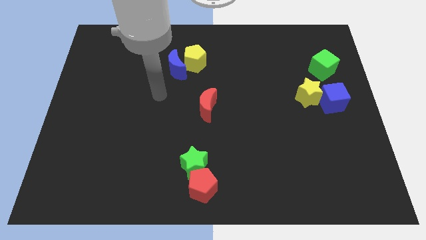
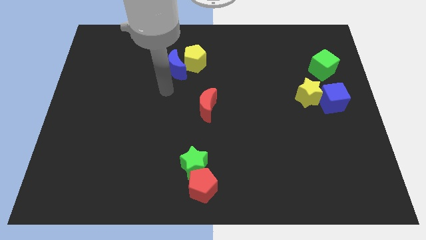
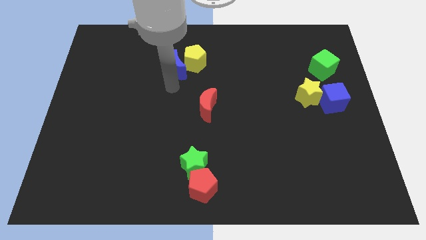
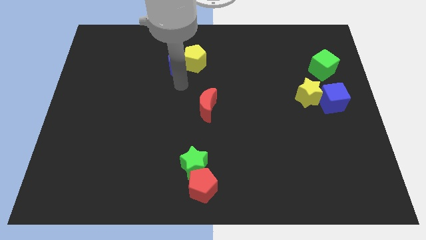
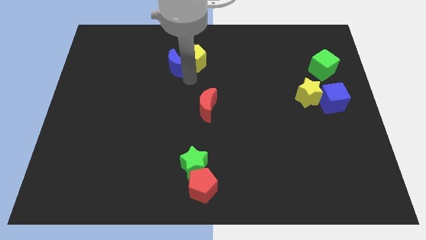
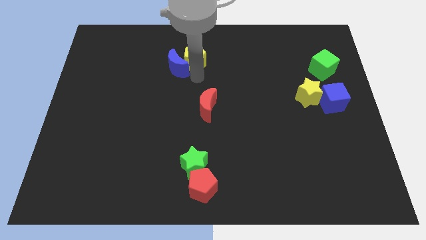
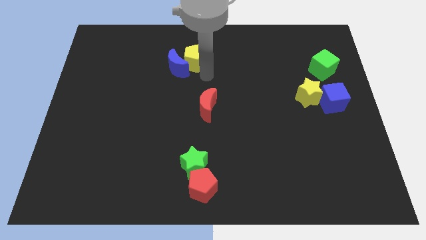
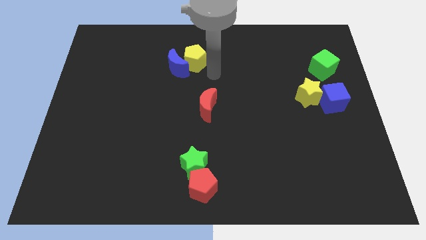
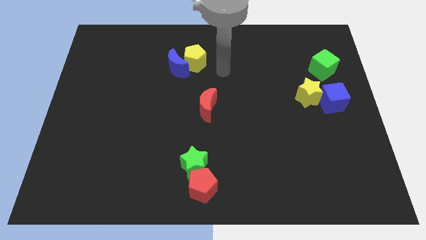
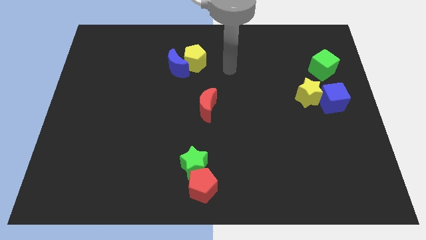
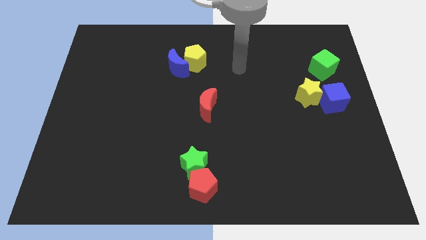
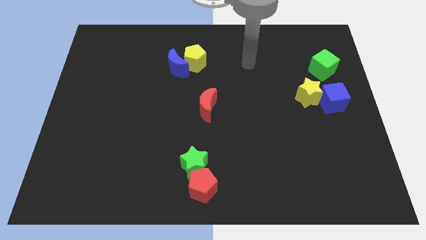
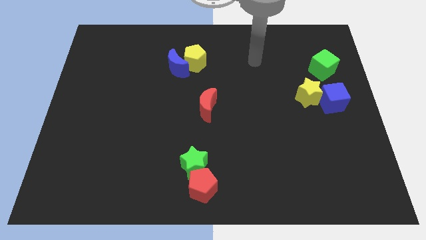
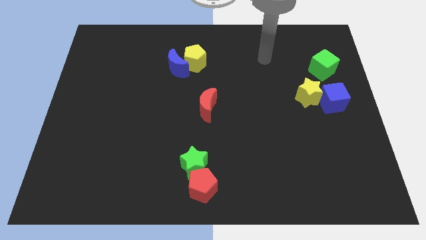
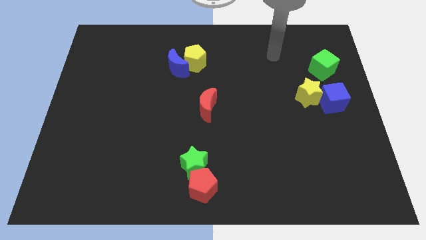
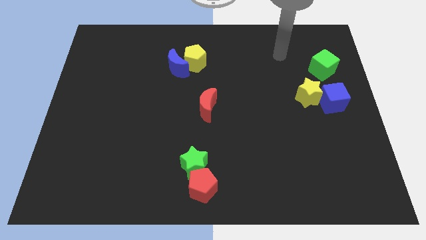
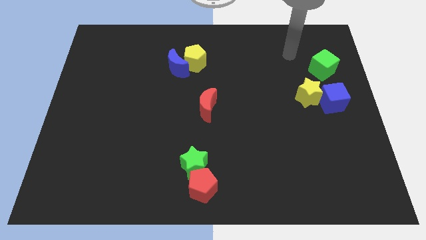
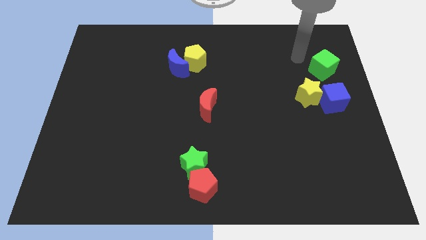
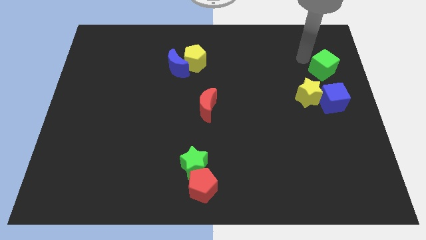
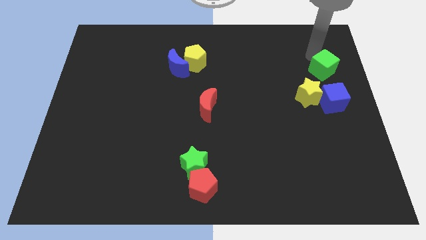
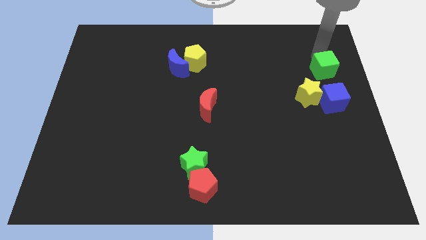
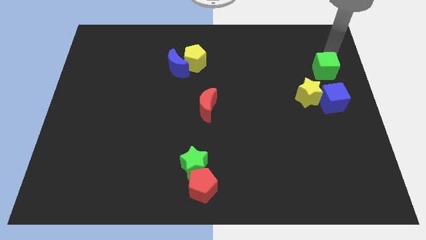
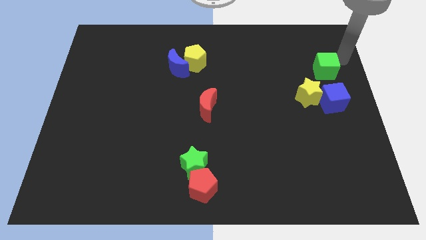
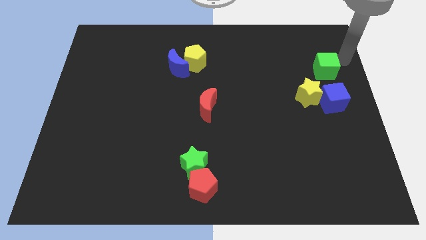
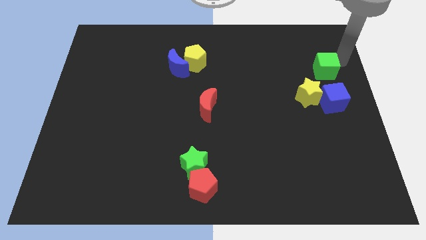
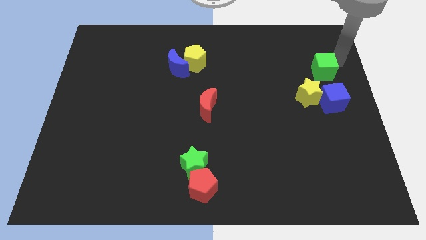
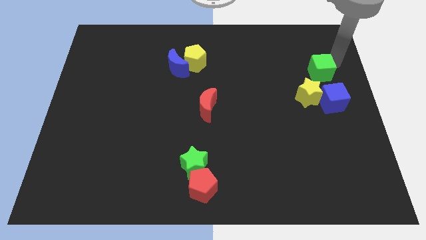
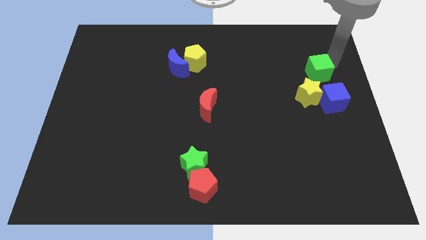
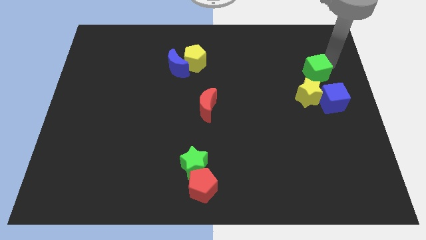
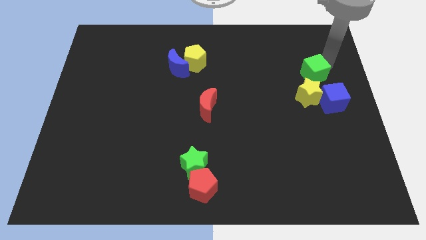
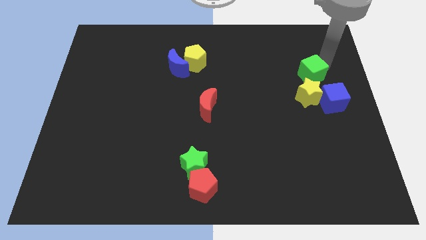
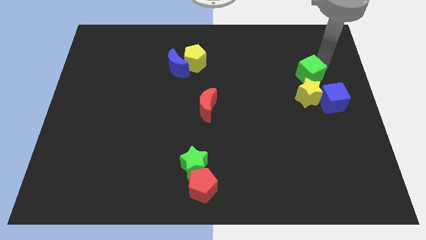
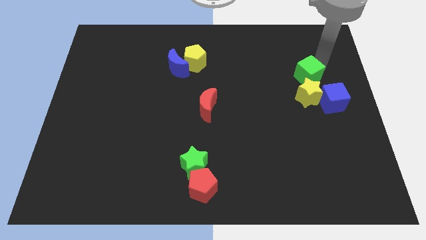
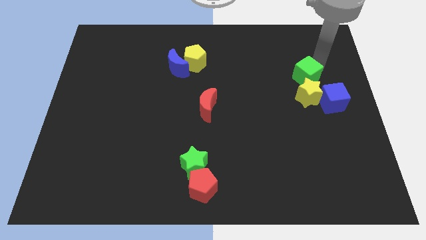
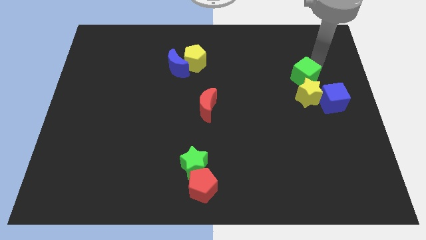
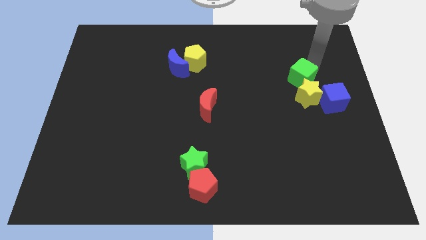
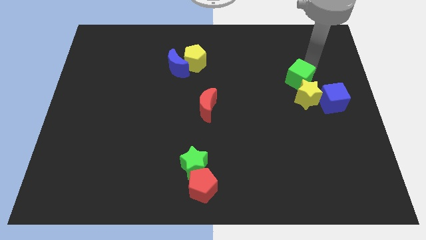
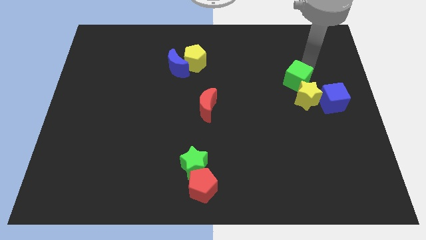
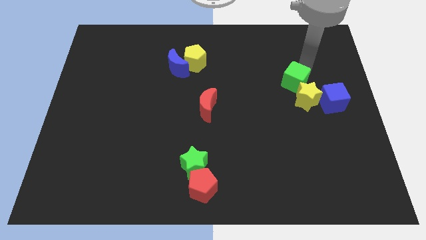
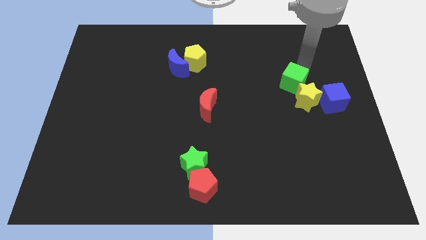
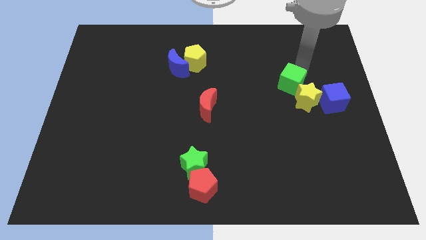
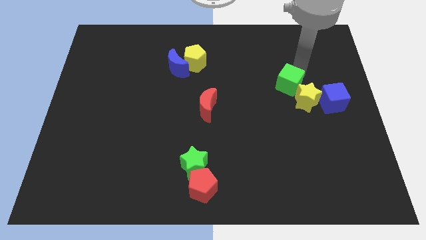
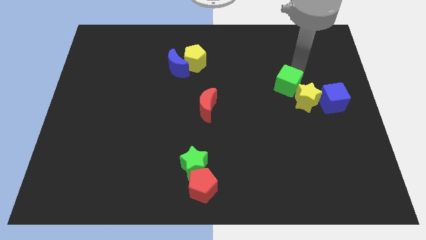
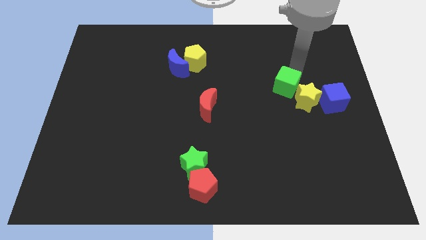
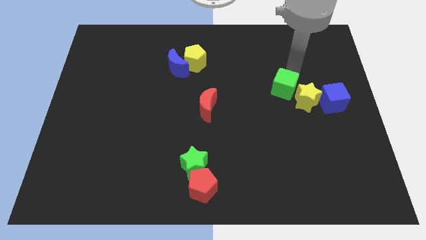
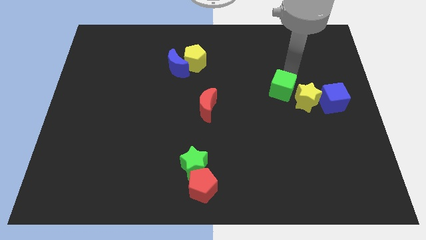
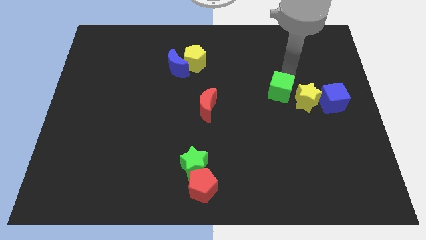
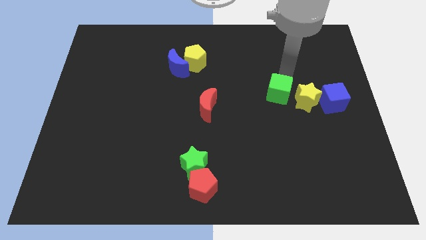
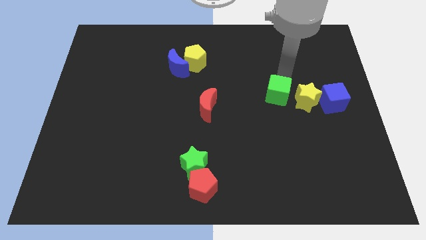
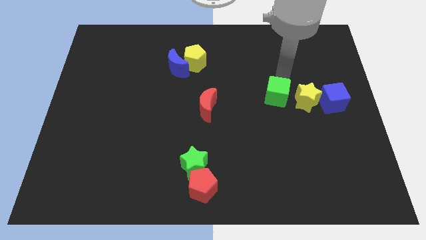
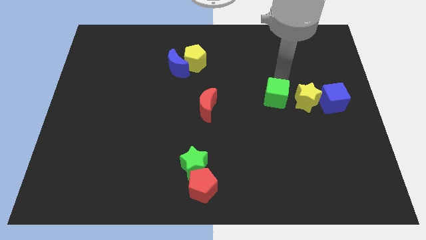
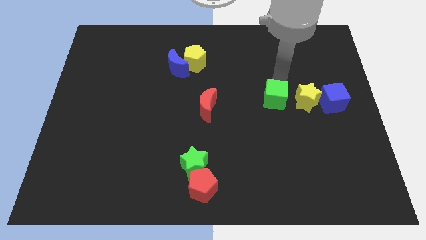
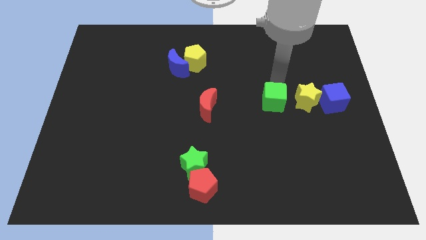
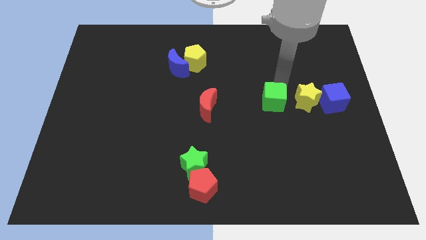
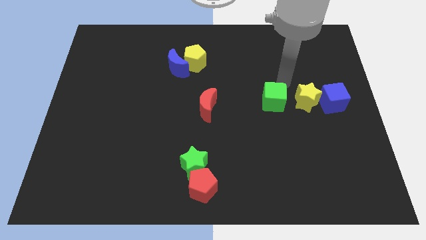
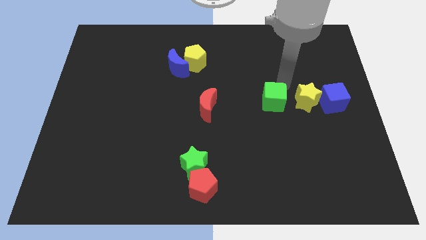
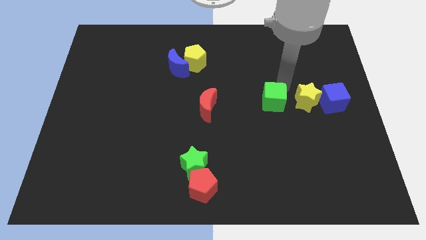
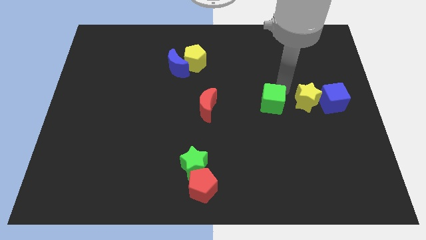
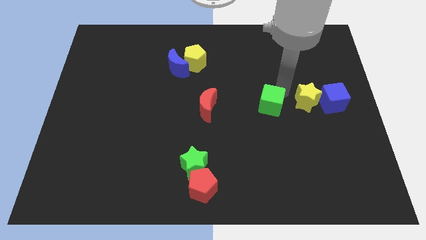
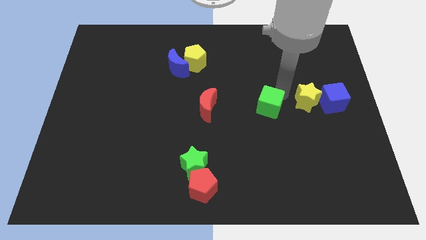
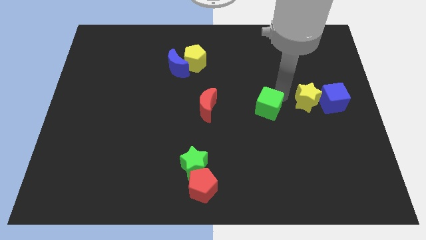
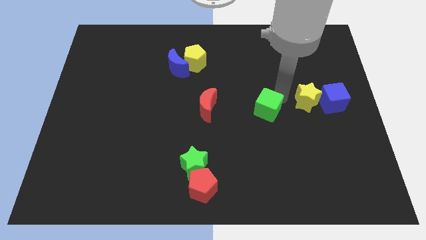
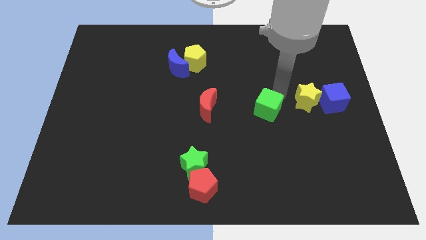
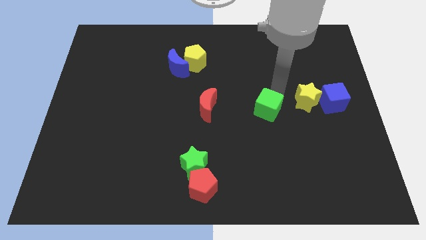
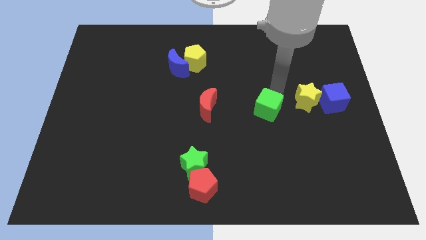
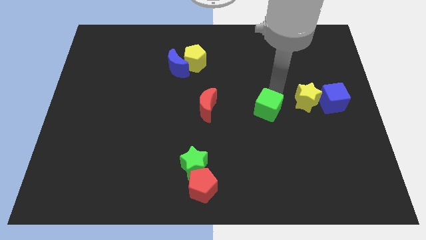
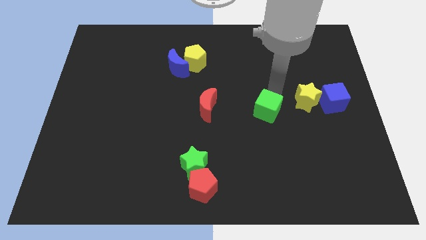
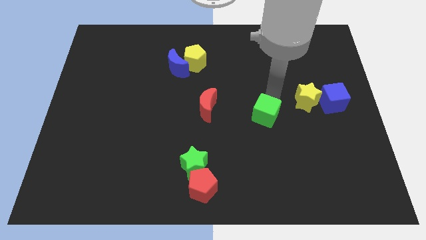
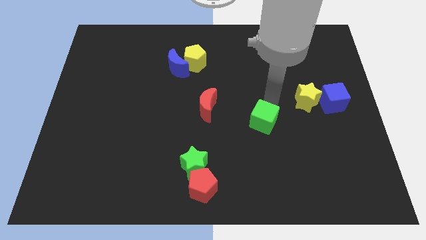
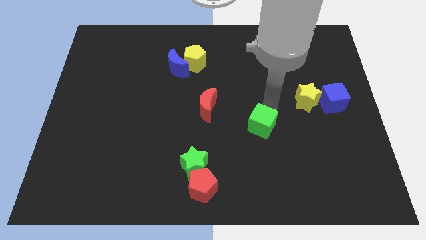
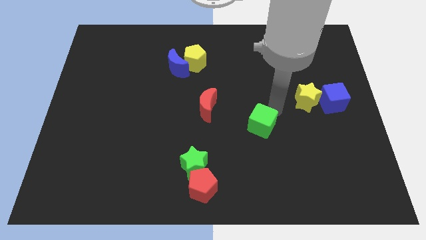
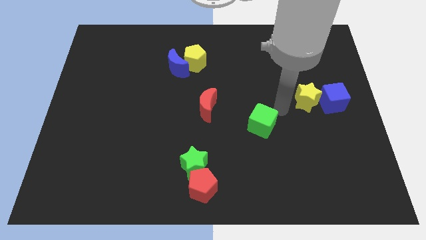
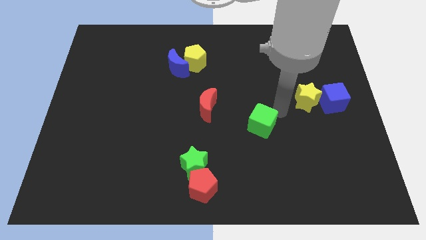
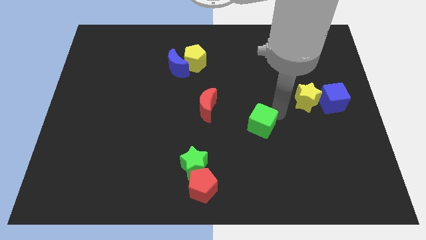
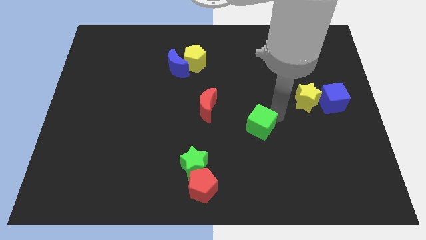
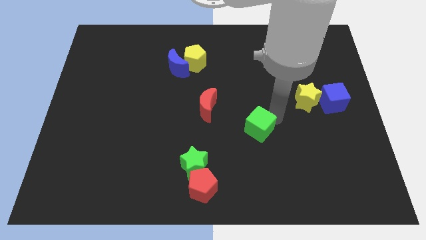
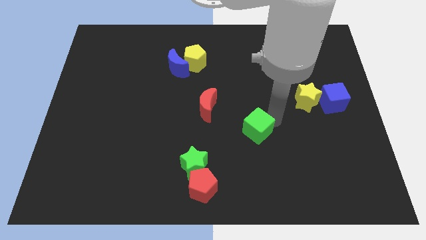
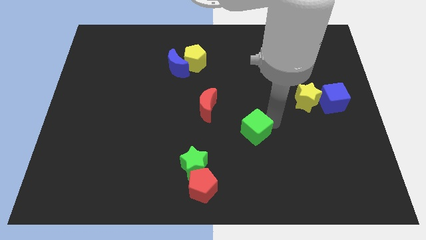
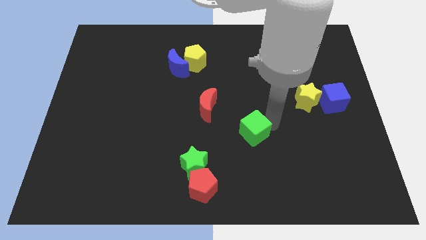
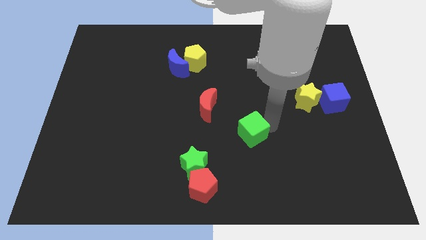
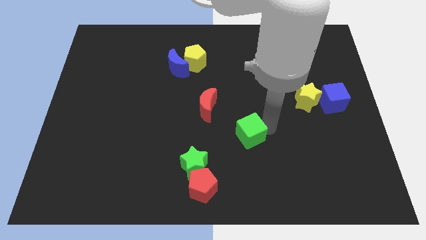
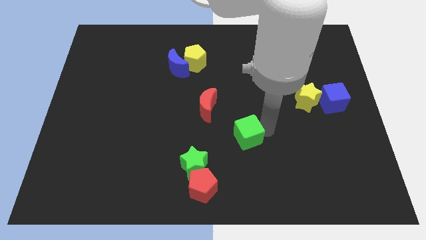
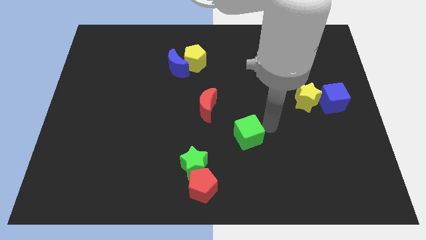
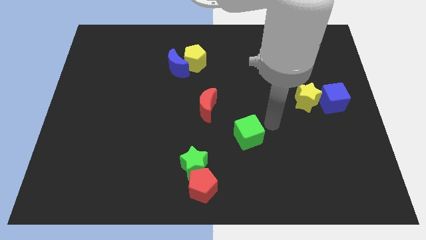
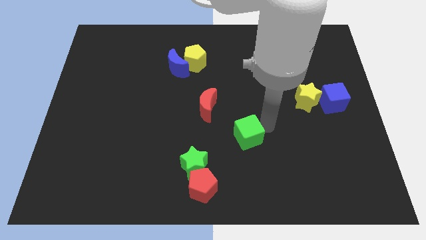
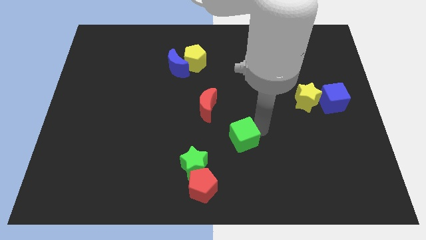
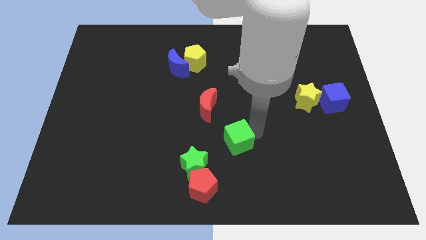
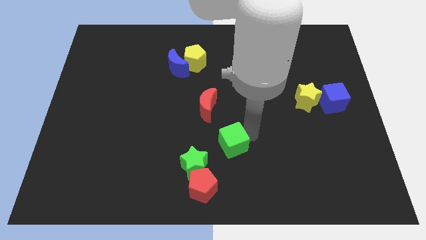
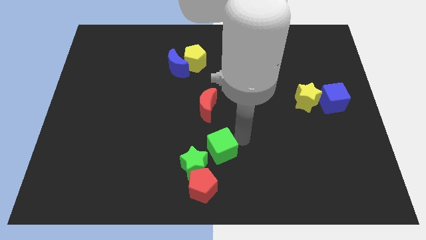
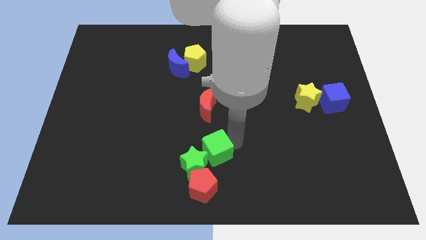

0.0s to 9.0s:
move the green cube towards the green star
